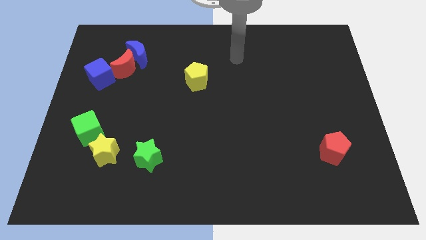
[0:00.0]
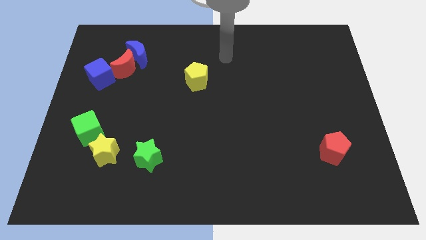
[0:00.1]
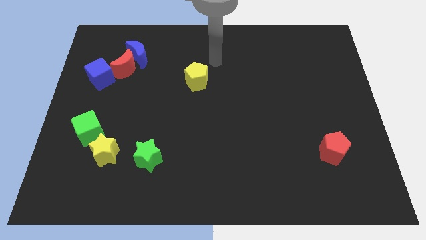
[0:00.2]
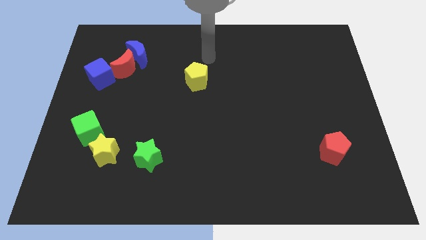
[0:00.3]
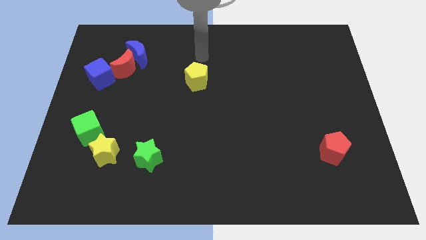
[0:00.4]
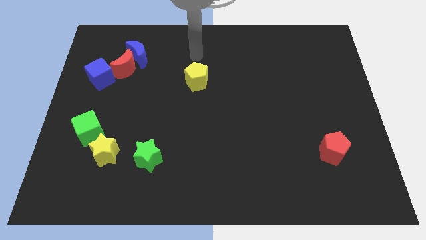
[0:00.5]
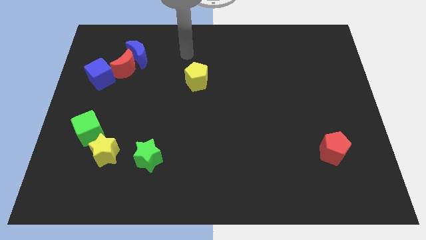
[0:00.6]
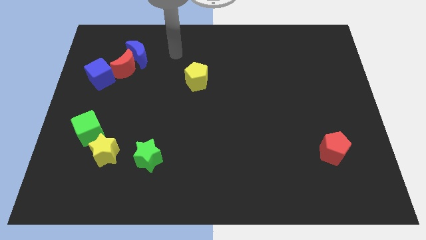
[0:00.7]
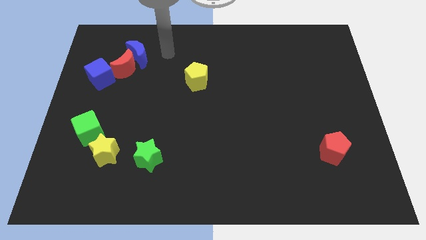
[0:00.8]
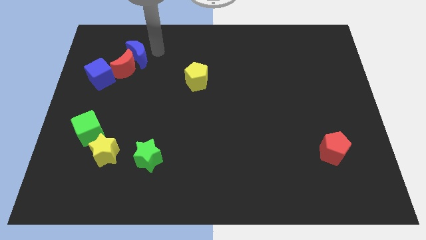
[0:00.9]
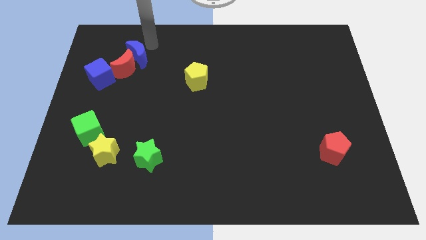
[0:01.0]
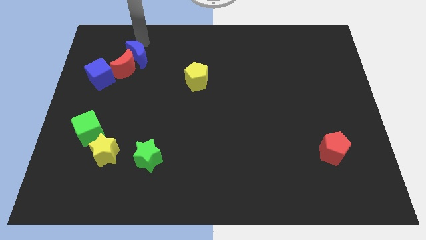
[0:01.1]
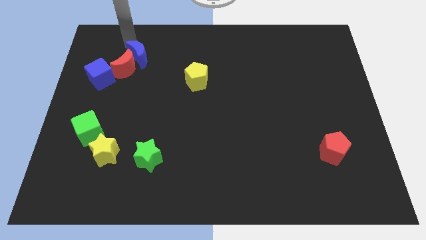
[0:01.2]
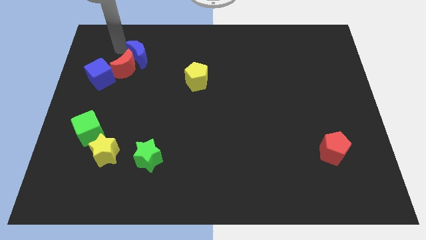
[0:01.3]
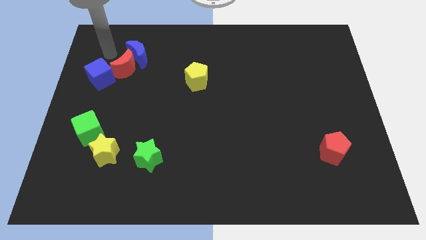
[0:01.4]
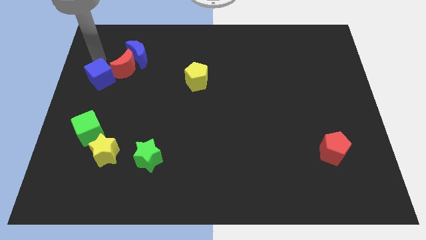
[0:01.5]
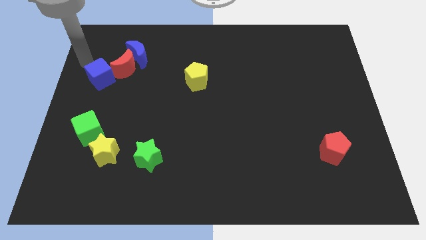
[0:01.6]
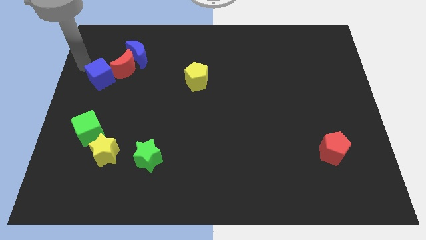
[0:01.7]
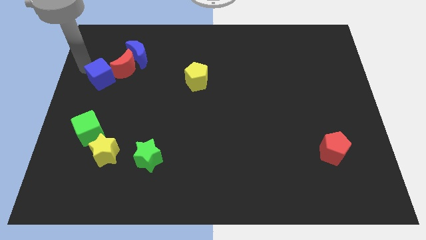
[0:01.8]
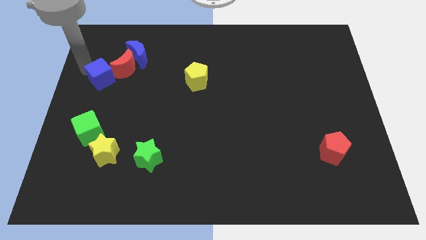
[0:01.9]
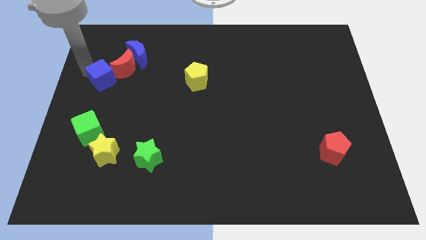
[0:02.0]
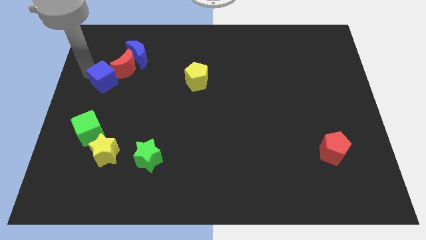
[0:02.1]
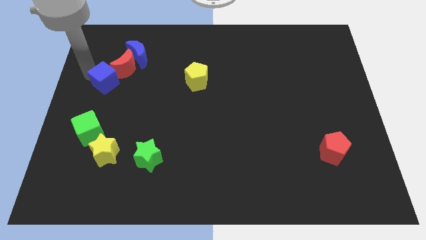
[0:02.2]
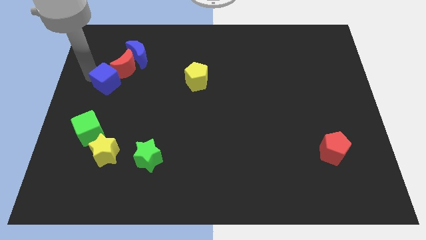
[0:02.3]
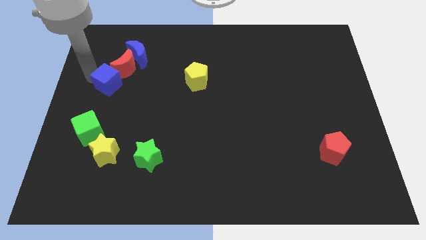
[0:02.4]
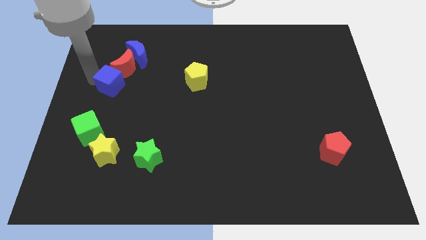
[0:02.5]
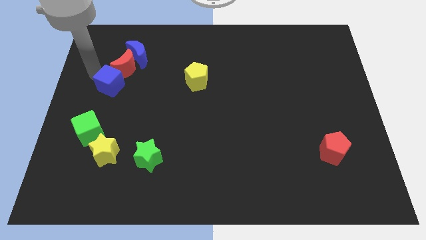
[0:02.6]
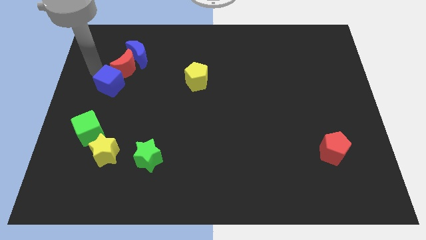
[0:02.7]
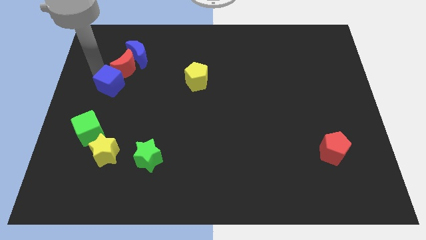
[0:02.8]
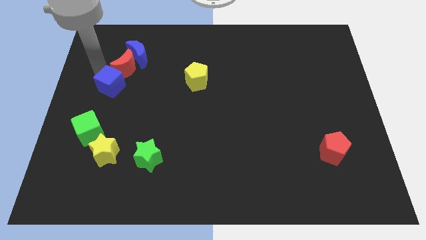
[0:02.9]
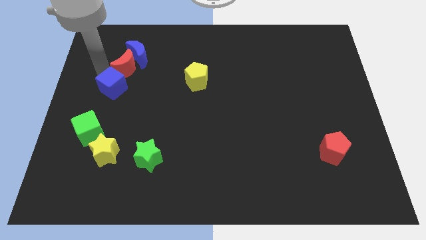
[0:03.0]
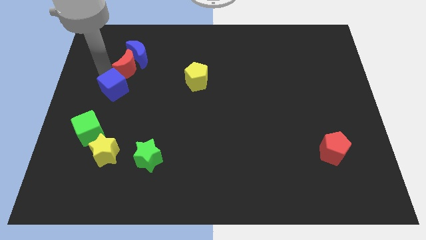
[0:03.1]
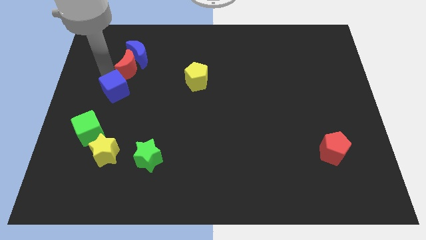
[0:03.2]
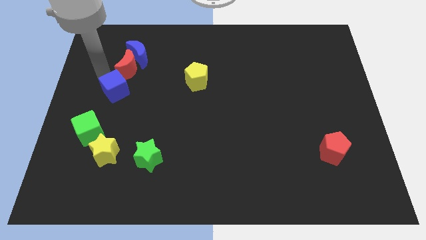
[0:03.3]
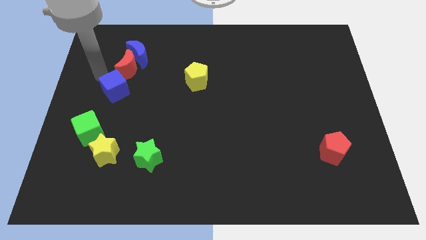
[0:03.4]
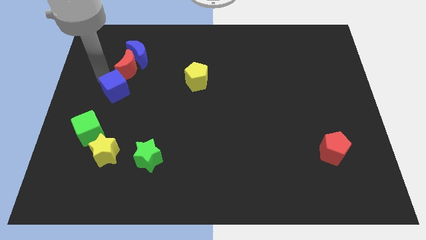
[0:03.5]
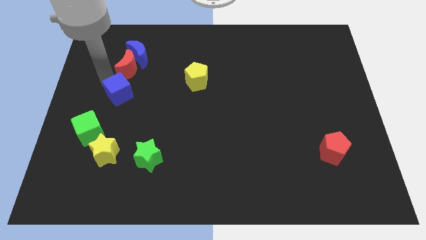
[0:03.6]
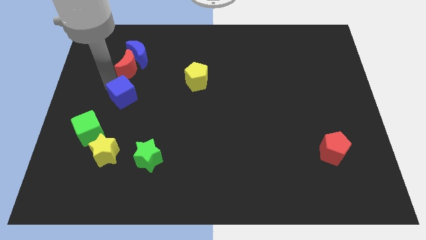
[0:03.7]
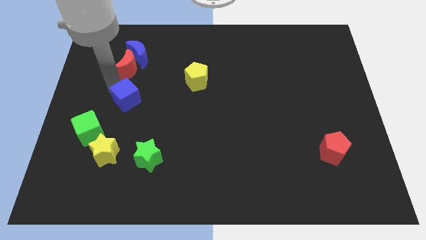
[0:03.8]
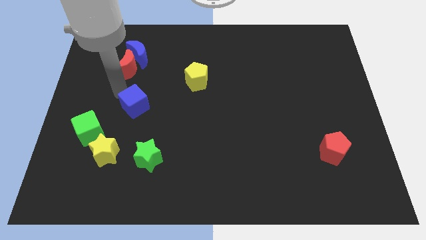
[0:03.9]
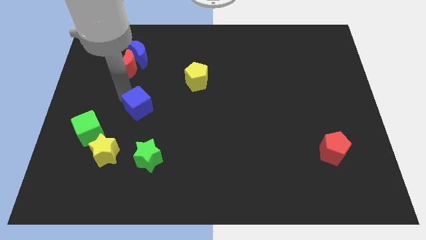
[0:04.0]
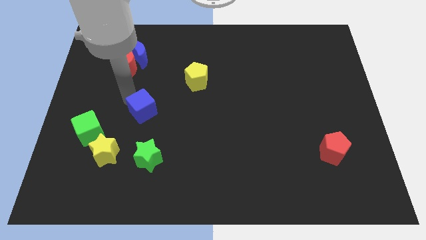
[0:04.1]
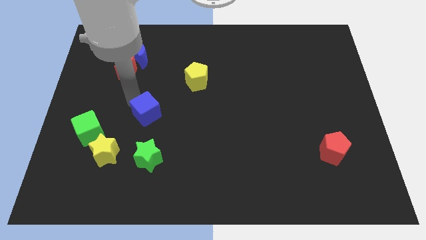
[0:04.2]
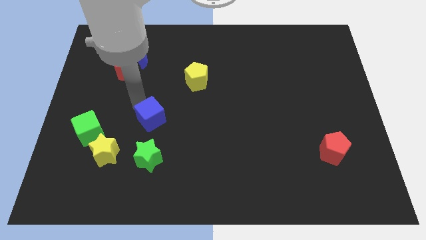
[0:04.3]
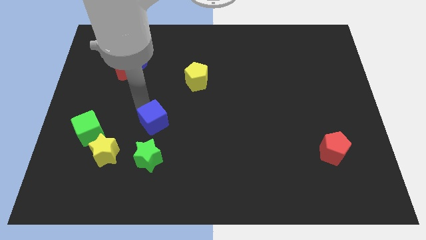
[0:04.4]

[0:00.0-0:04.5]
push the blue cube downwards and right diagonally

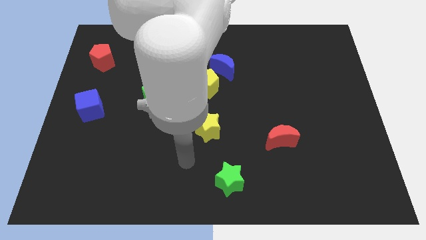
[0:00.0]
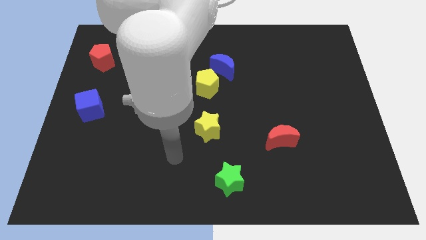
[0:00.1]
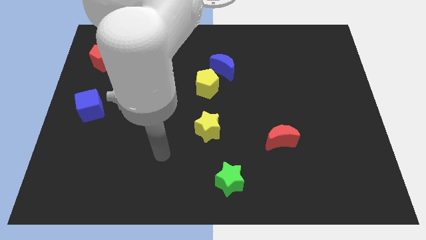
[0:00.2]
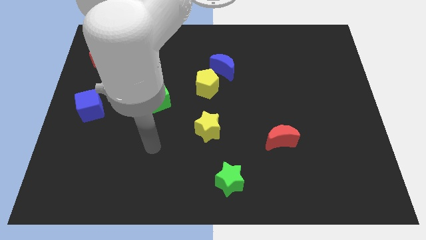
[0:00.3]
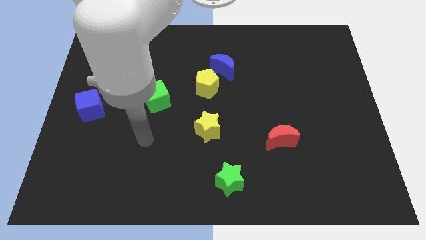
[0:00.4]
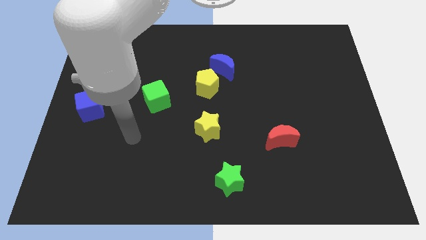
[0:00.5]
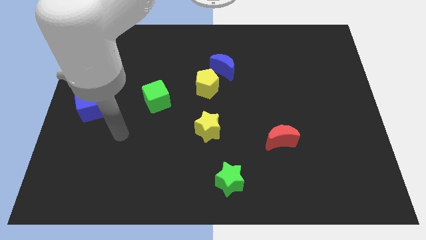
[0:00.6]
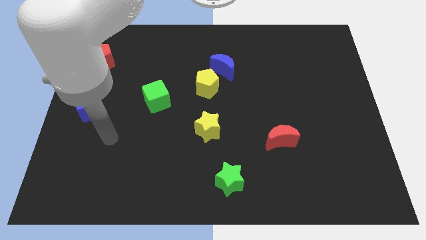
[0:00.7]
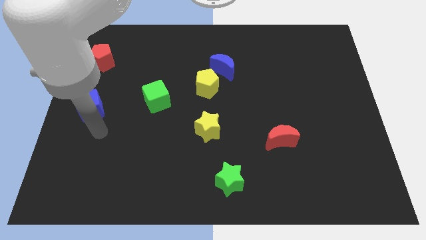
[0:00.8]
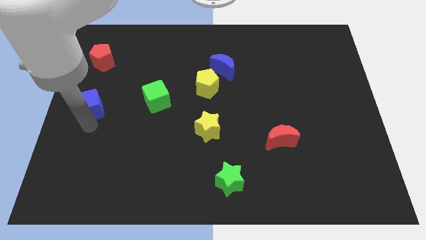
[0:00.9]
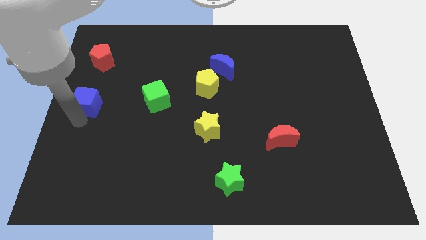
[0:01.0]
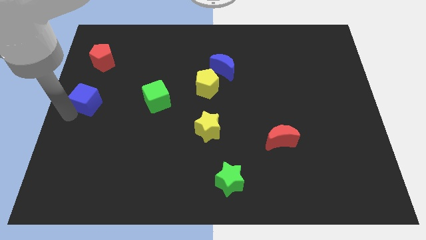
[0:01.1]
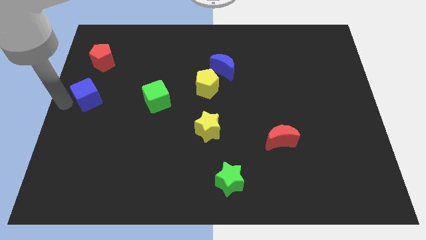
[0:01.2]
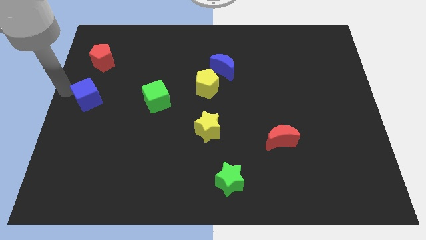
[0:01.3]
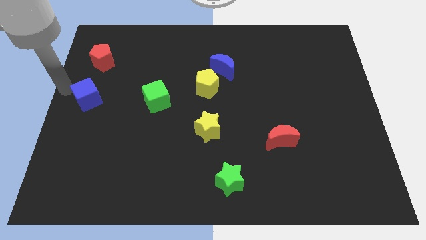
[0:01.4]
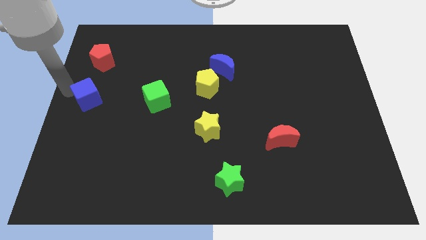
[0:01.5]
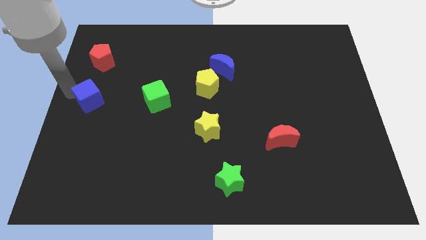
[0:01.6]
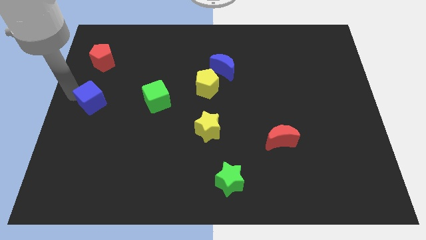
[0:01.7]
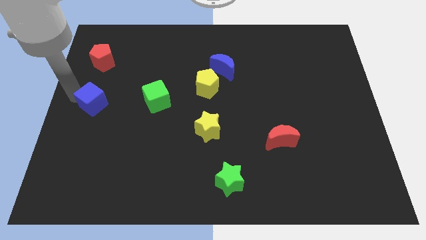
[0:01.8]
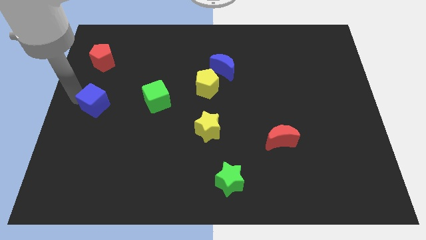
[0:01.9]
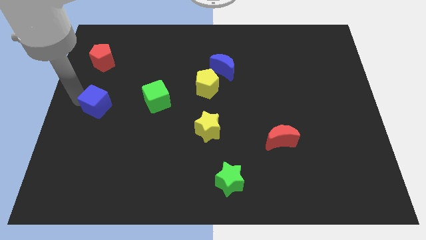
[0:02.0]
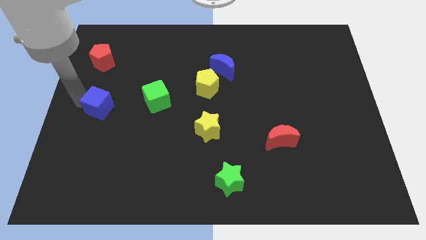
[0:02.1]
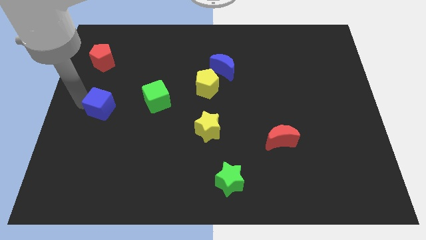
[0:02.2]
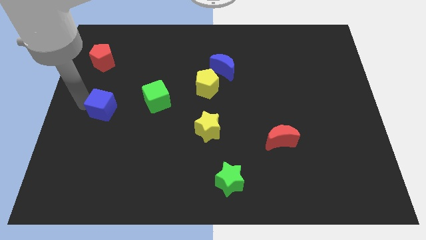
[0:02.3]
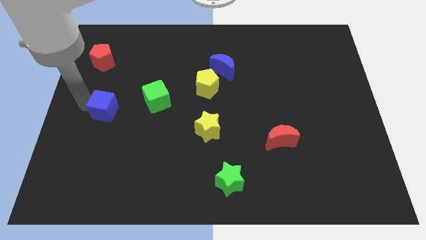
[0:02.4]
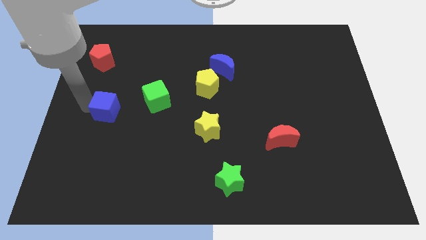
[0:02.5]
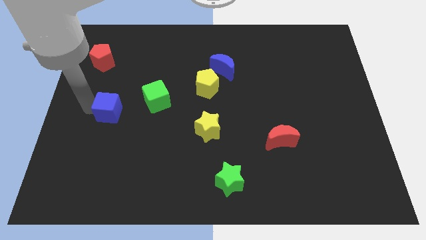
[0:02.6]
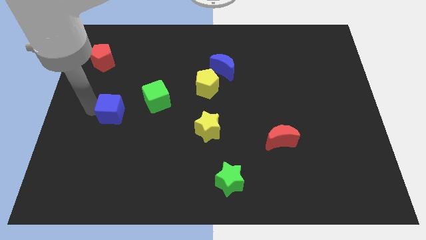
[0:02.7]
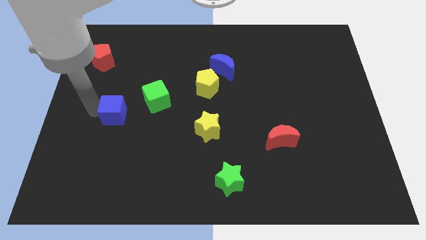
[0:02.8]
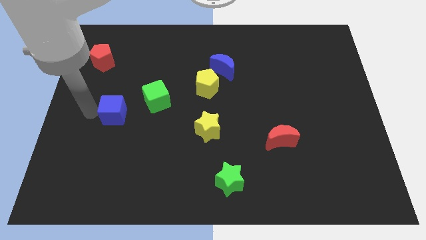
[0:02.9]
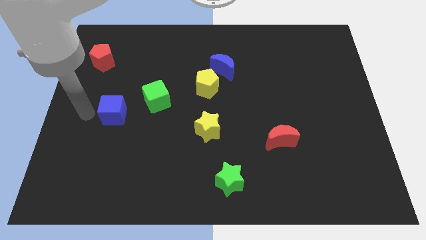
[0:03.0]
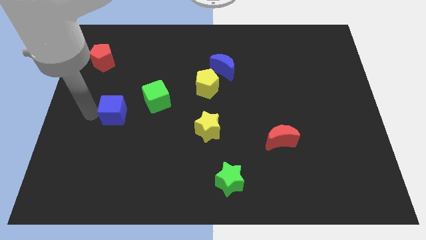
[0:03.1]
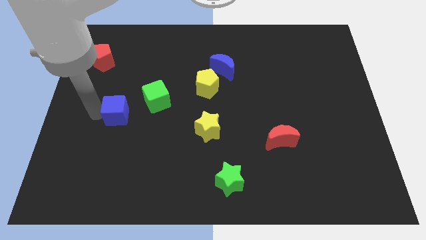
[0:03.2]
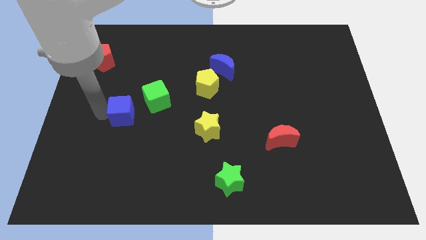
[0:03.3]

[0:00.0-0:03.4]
slightly push the blue cube to the right
